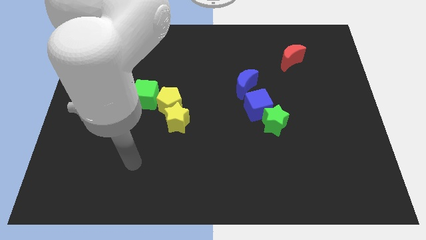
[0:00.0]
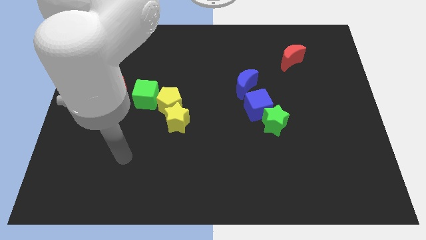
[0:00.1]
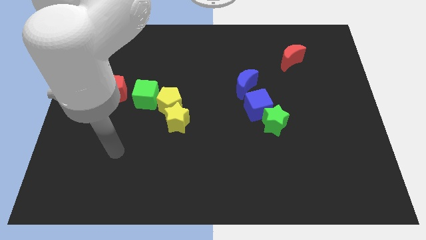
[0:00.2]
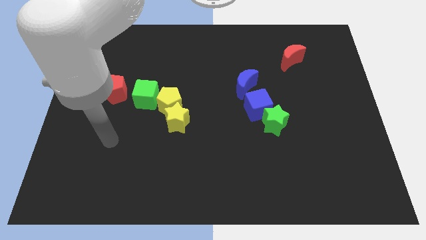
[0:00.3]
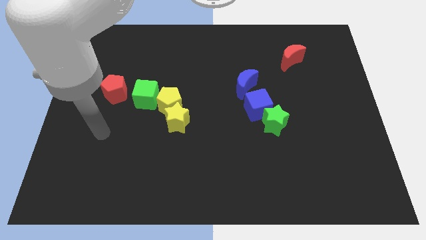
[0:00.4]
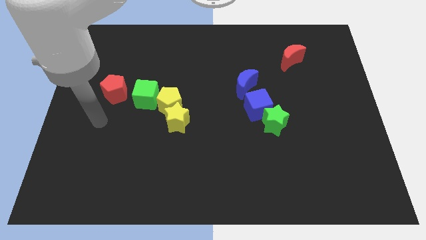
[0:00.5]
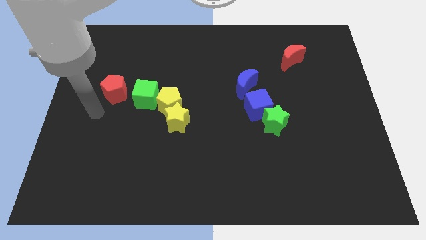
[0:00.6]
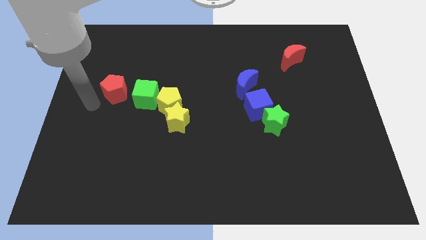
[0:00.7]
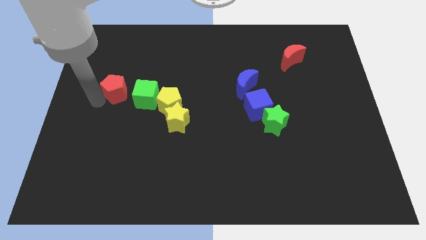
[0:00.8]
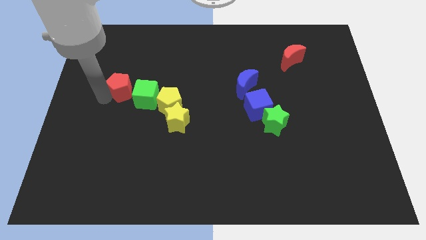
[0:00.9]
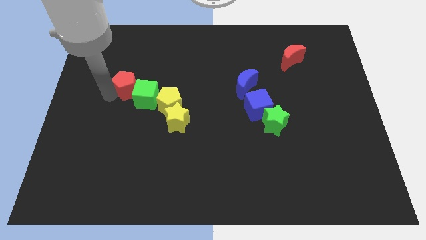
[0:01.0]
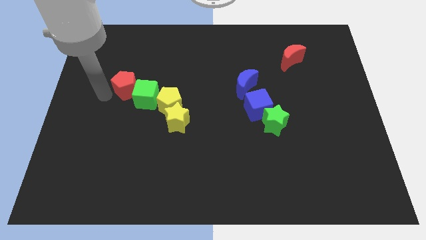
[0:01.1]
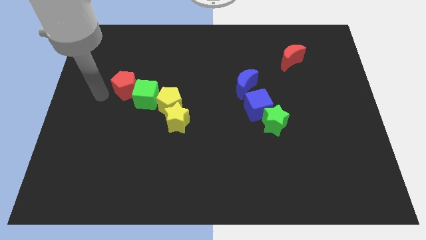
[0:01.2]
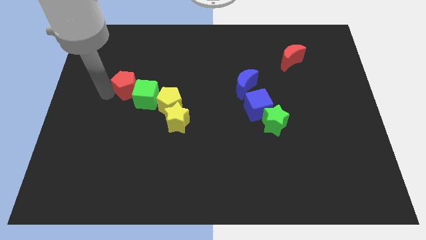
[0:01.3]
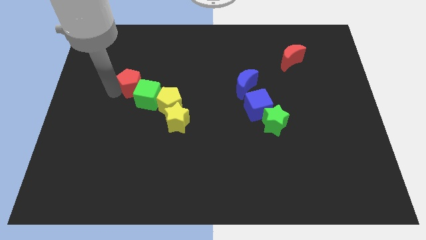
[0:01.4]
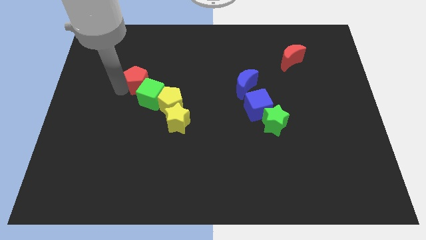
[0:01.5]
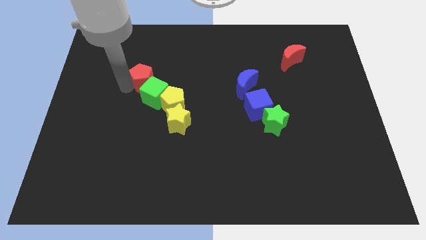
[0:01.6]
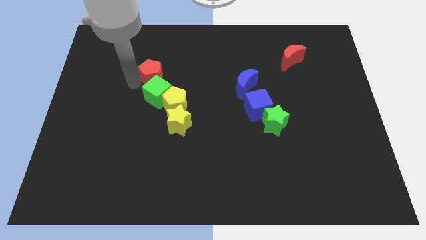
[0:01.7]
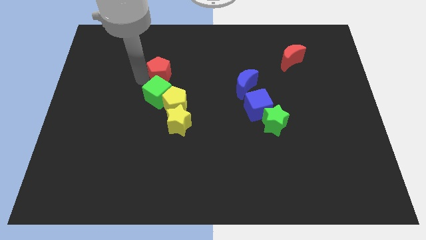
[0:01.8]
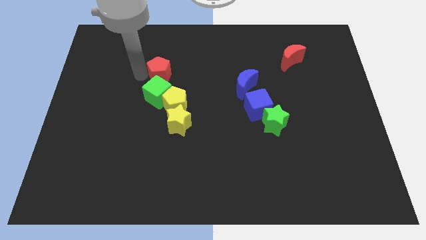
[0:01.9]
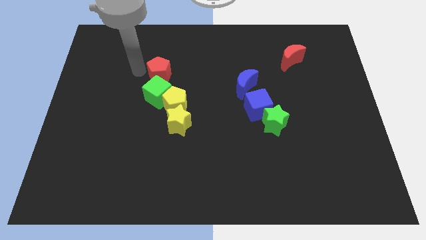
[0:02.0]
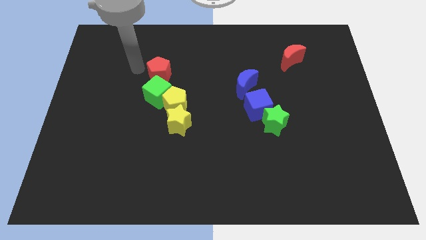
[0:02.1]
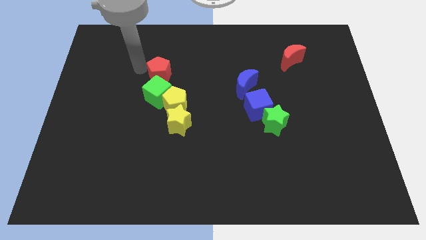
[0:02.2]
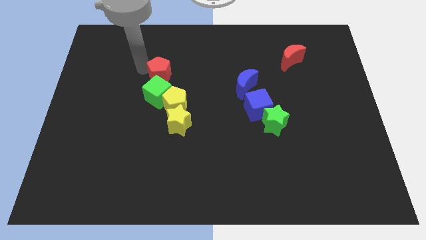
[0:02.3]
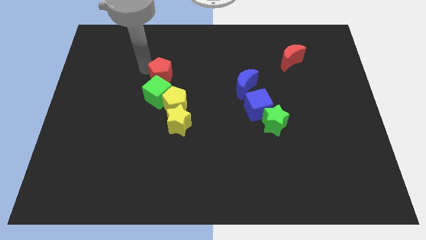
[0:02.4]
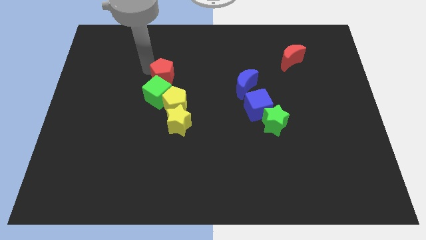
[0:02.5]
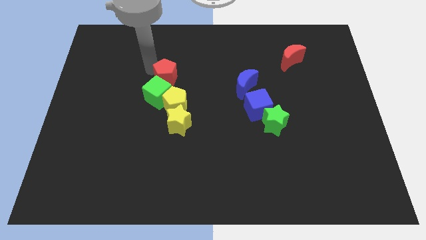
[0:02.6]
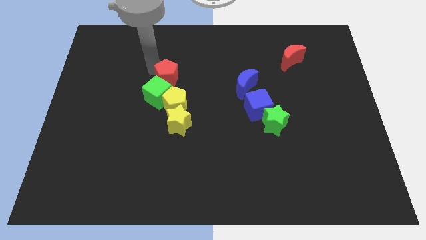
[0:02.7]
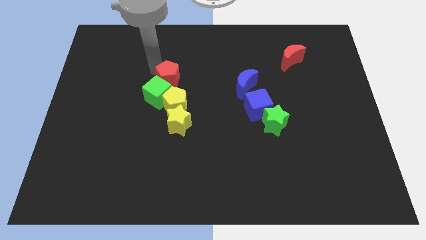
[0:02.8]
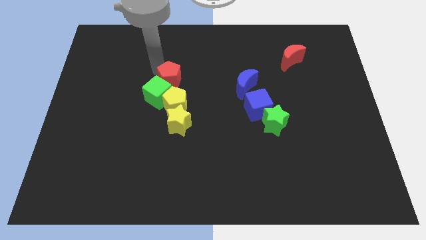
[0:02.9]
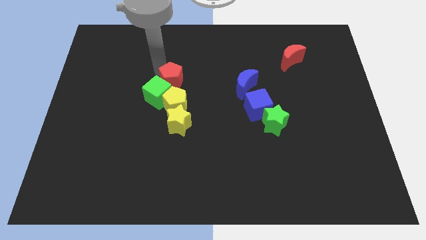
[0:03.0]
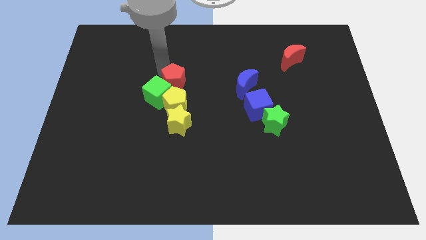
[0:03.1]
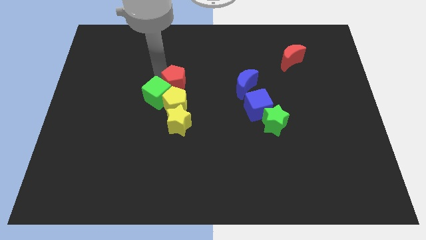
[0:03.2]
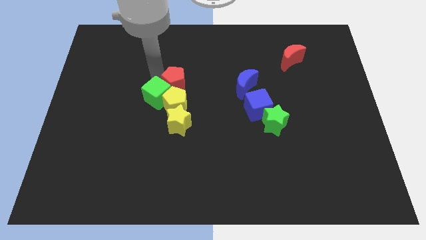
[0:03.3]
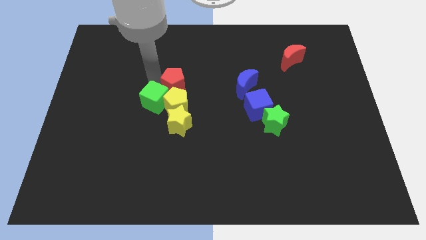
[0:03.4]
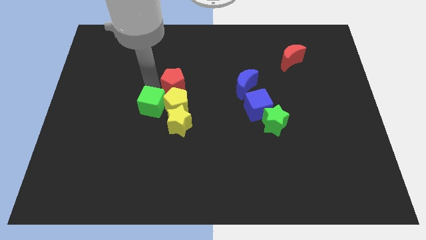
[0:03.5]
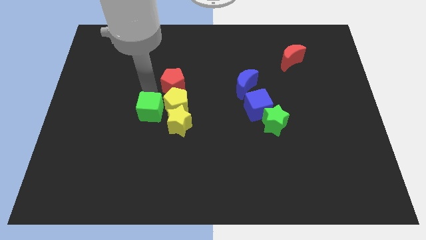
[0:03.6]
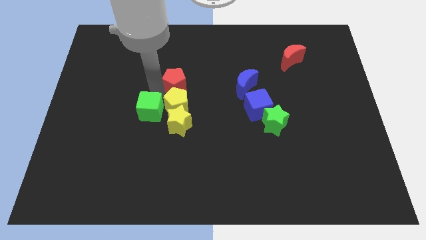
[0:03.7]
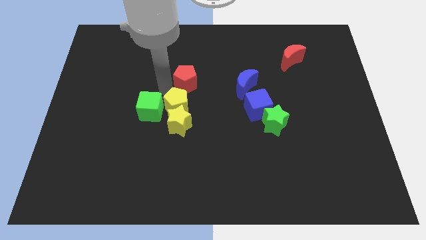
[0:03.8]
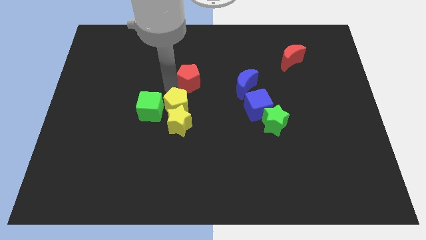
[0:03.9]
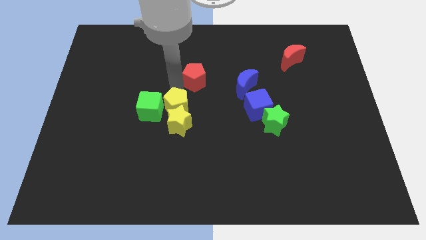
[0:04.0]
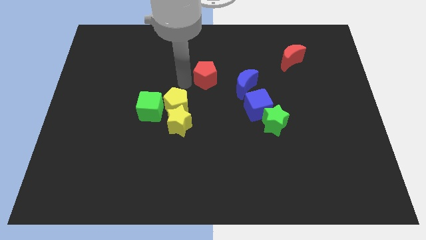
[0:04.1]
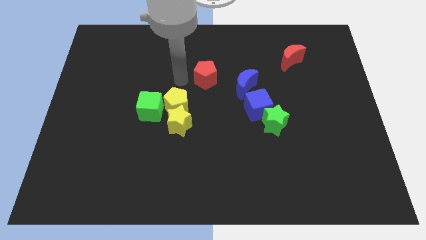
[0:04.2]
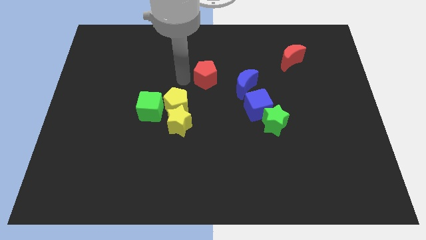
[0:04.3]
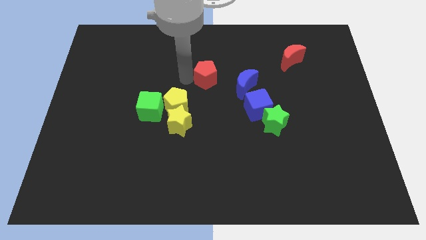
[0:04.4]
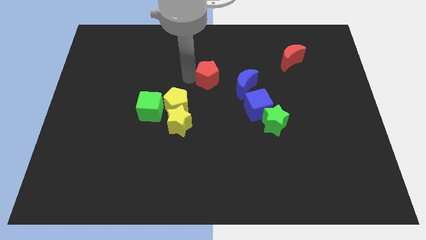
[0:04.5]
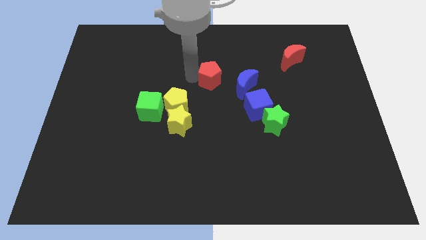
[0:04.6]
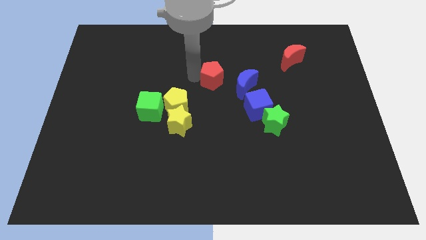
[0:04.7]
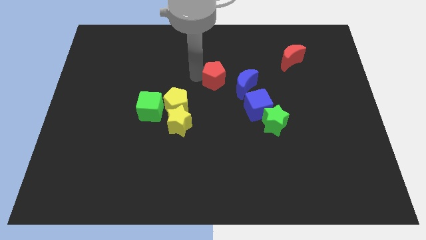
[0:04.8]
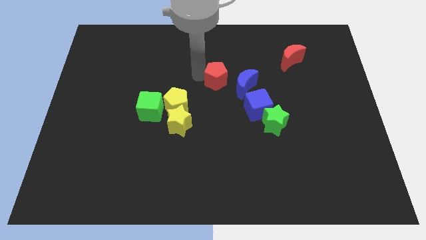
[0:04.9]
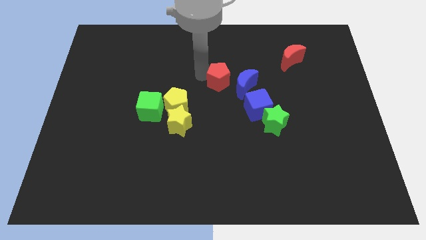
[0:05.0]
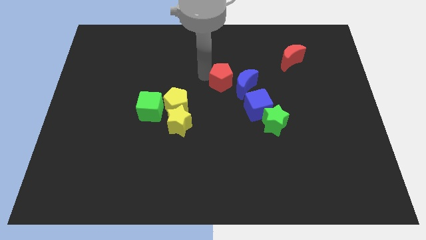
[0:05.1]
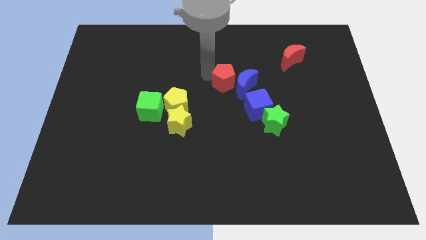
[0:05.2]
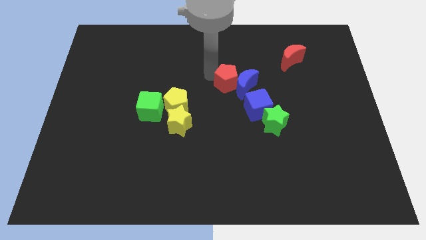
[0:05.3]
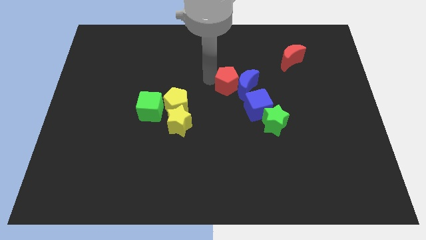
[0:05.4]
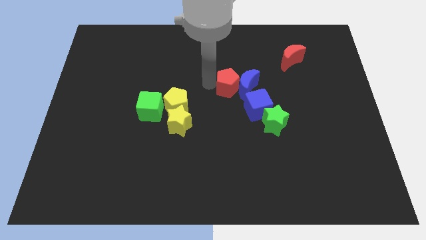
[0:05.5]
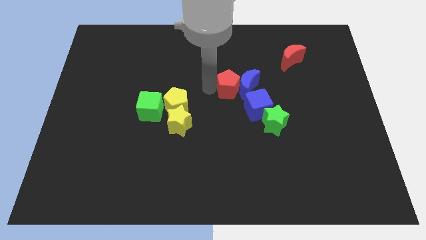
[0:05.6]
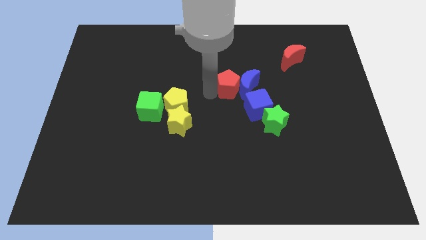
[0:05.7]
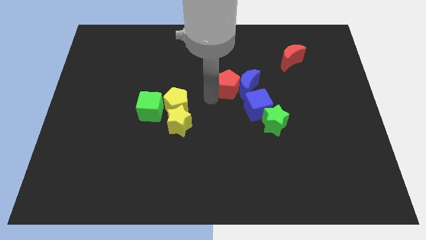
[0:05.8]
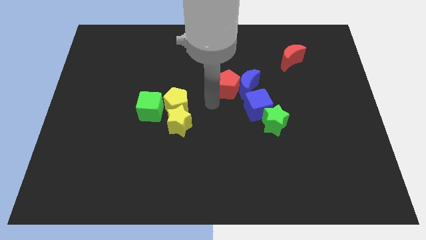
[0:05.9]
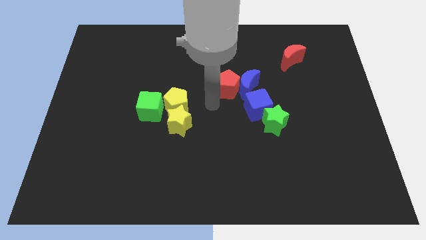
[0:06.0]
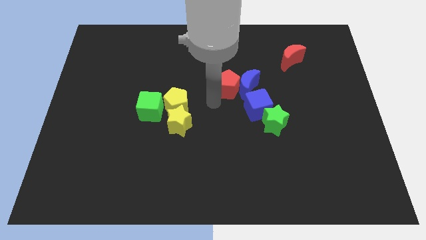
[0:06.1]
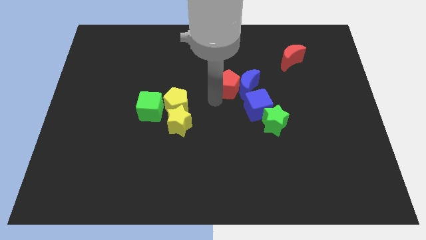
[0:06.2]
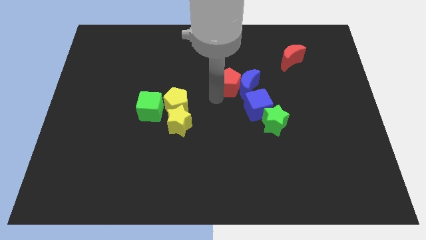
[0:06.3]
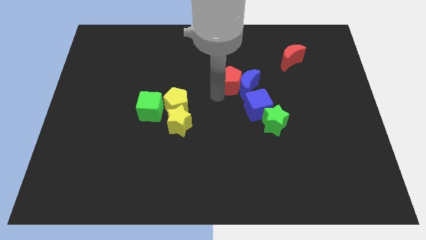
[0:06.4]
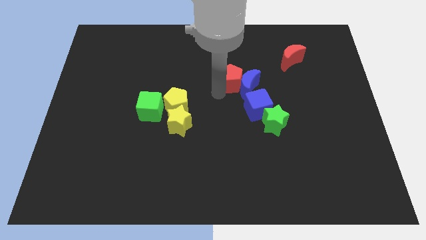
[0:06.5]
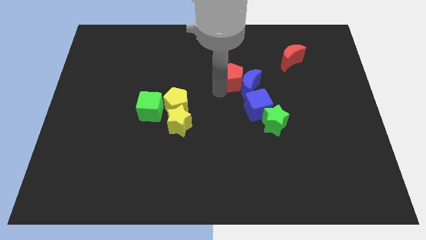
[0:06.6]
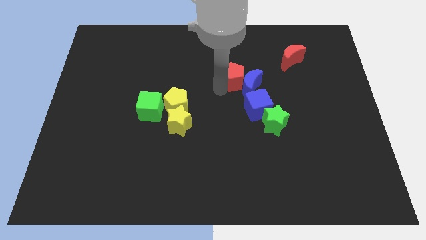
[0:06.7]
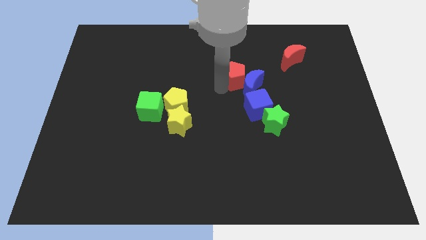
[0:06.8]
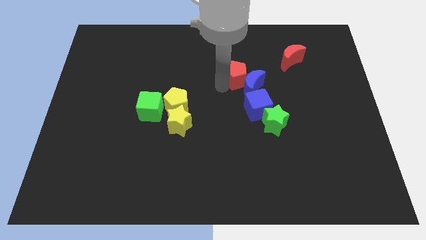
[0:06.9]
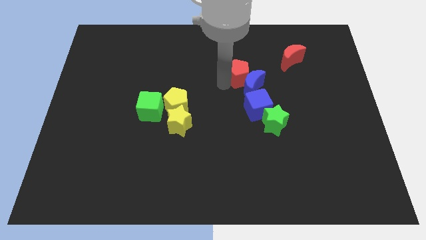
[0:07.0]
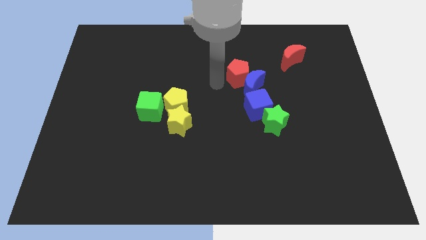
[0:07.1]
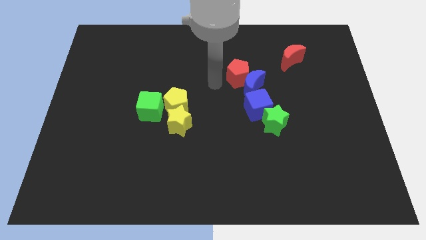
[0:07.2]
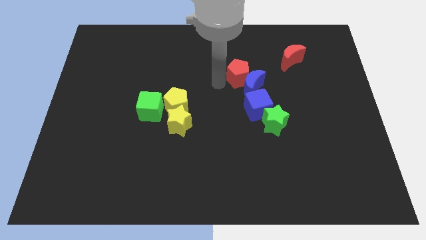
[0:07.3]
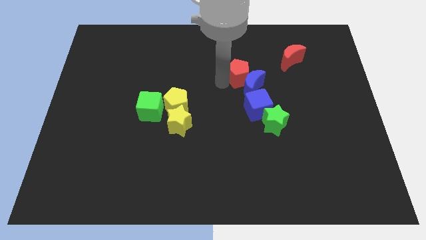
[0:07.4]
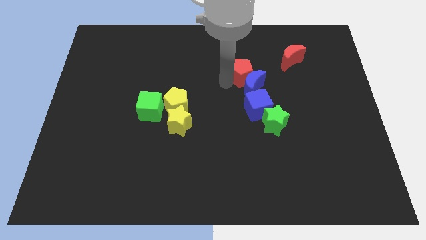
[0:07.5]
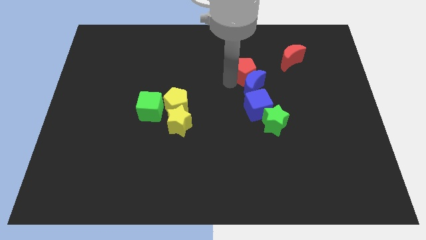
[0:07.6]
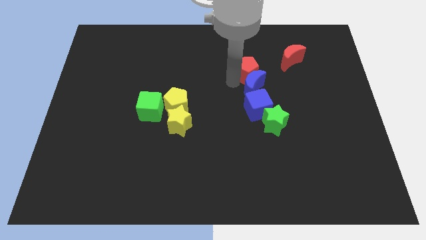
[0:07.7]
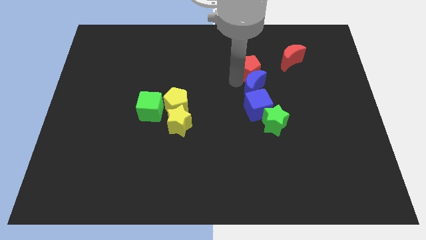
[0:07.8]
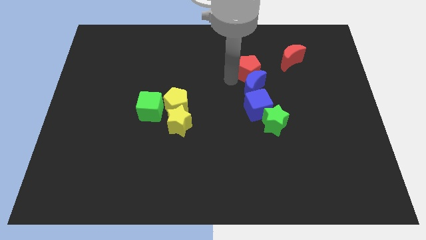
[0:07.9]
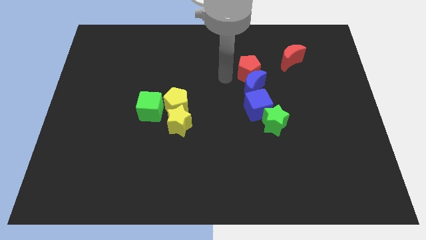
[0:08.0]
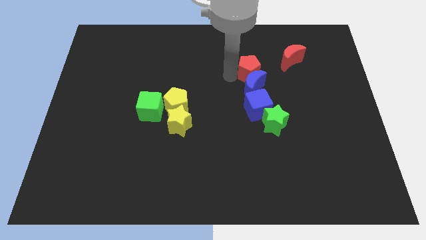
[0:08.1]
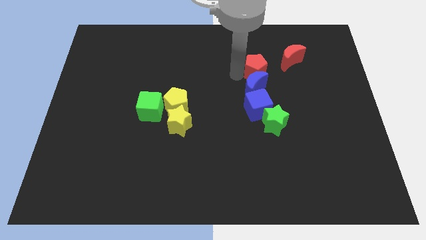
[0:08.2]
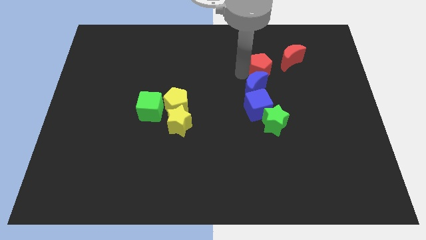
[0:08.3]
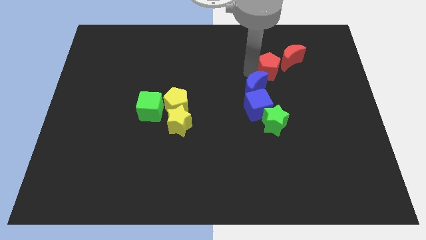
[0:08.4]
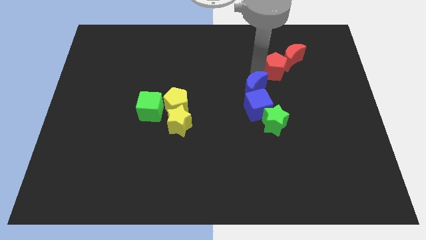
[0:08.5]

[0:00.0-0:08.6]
move the red pentagon close to the red moon
